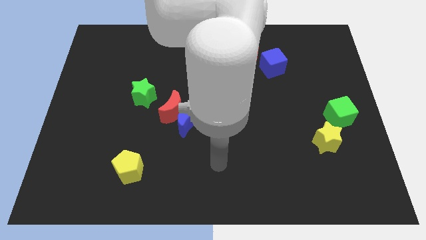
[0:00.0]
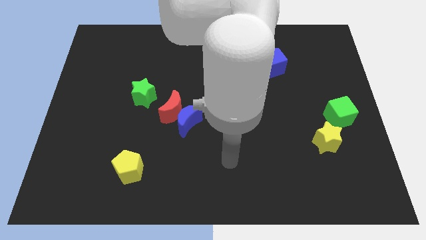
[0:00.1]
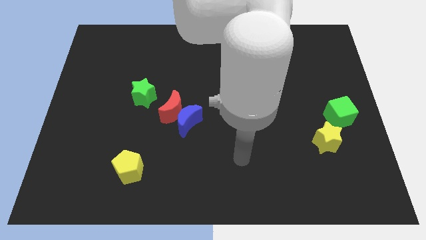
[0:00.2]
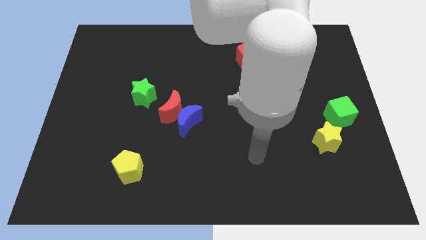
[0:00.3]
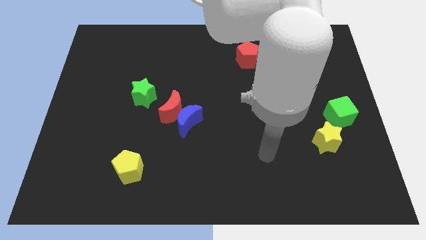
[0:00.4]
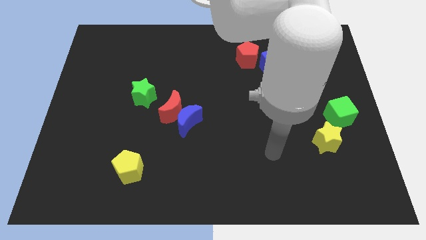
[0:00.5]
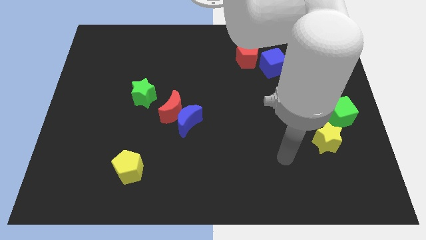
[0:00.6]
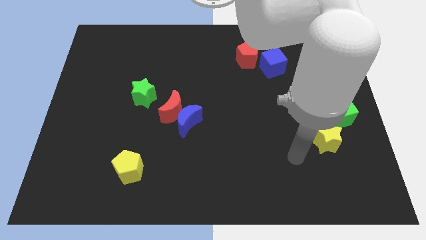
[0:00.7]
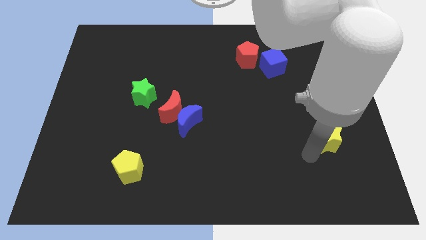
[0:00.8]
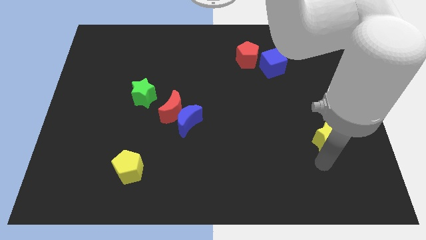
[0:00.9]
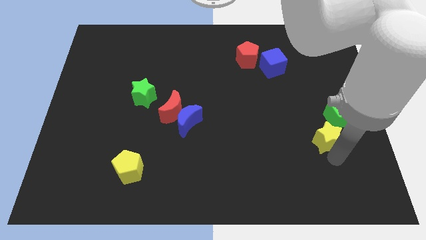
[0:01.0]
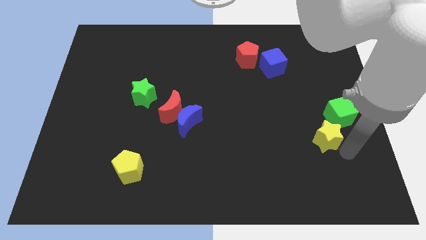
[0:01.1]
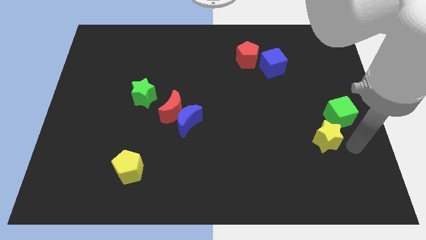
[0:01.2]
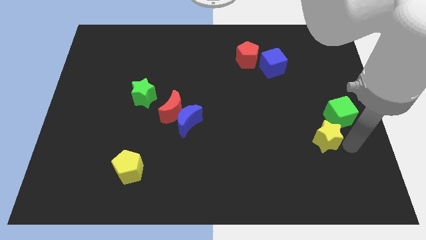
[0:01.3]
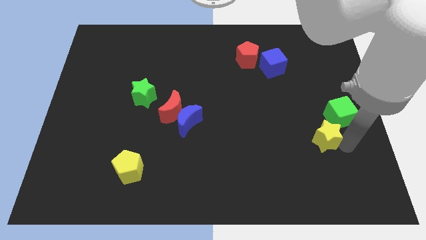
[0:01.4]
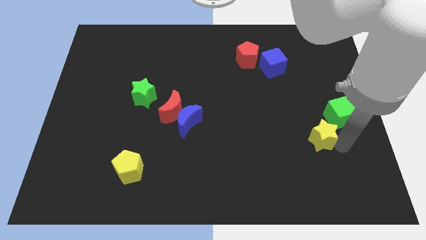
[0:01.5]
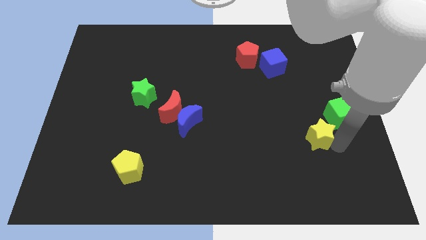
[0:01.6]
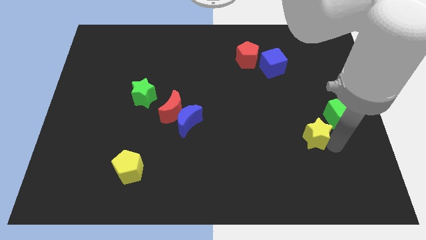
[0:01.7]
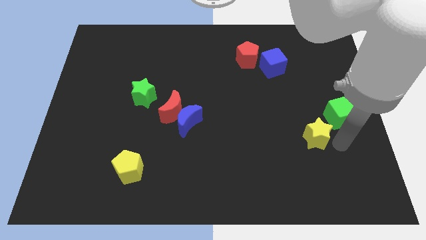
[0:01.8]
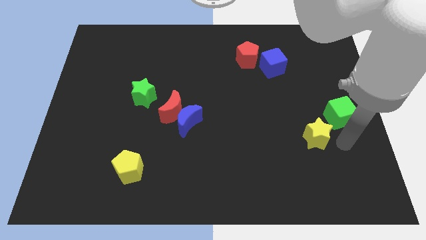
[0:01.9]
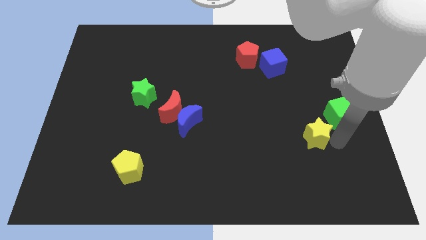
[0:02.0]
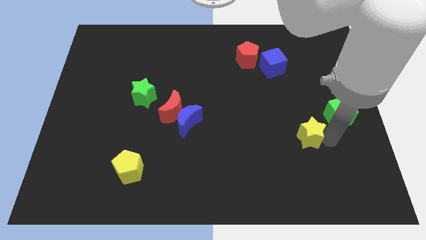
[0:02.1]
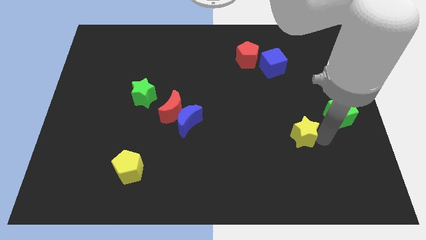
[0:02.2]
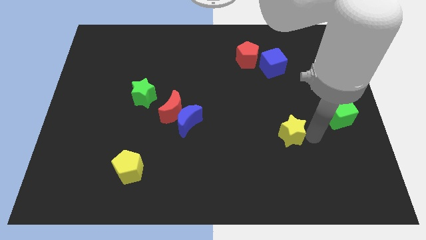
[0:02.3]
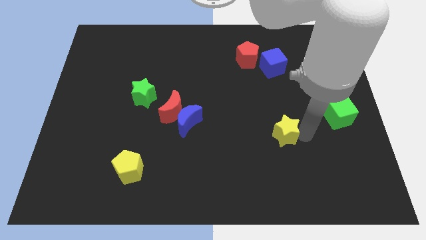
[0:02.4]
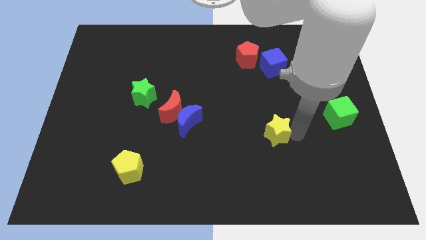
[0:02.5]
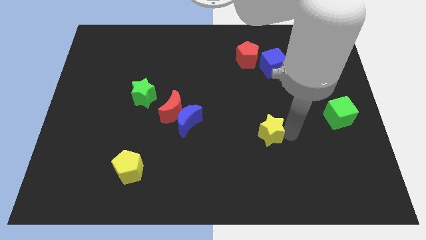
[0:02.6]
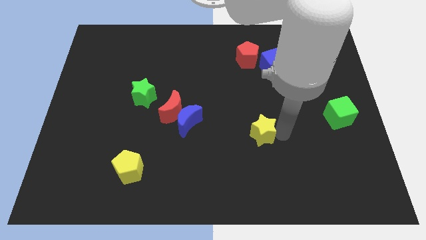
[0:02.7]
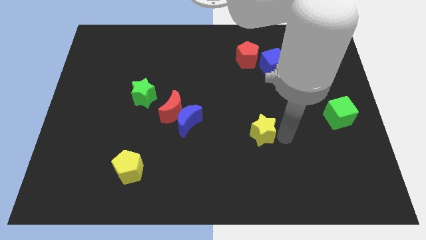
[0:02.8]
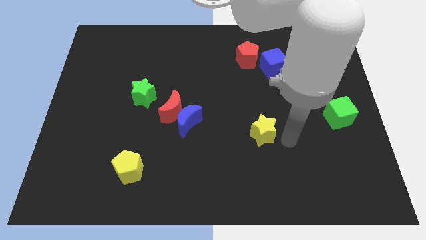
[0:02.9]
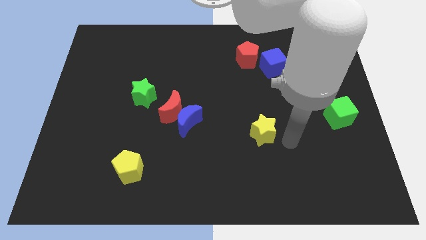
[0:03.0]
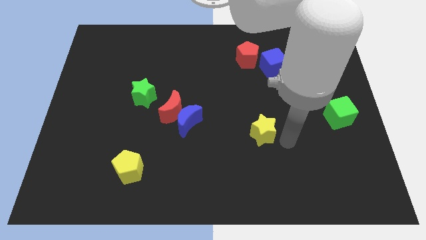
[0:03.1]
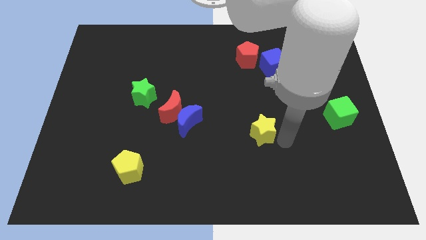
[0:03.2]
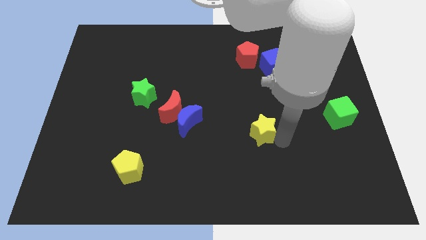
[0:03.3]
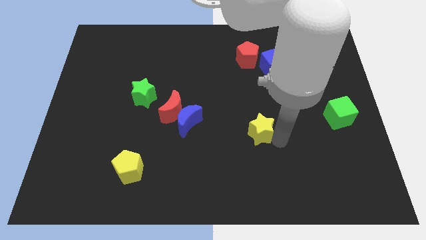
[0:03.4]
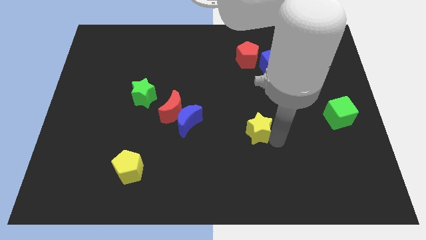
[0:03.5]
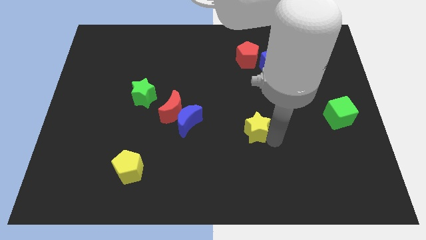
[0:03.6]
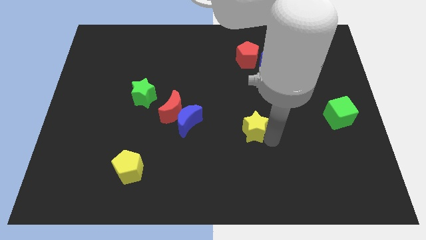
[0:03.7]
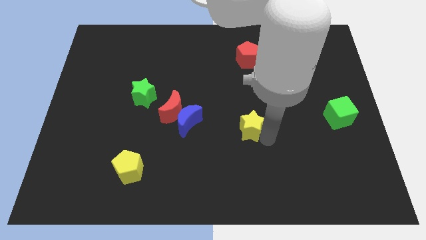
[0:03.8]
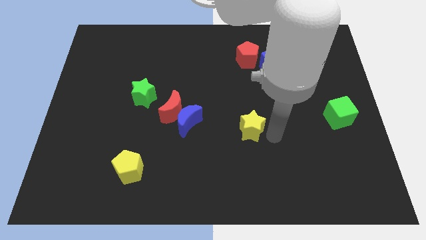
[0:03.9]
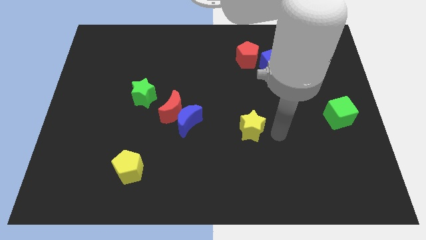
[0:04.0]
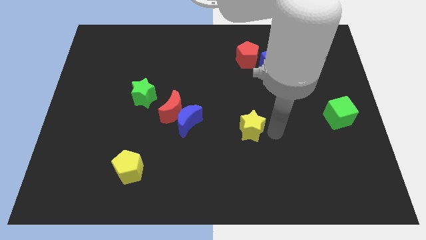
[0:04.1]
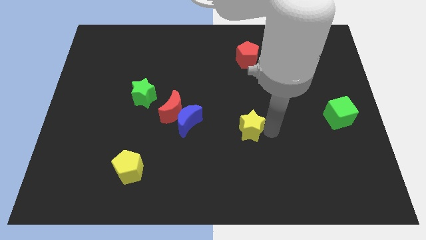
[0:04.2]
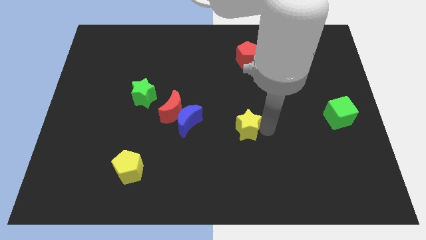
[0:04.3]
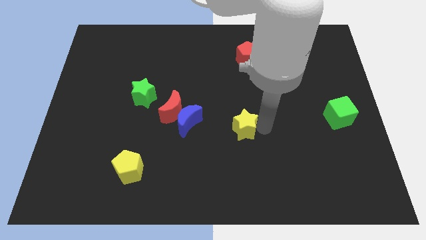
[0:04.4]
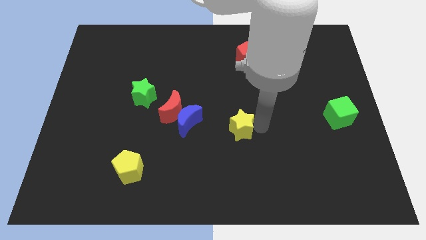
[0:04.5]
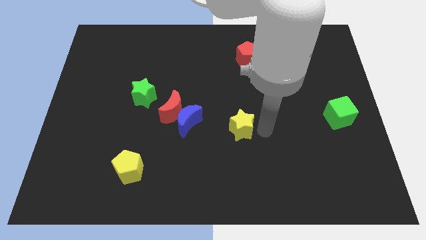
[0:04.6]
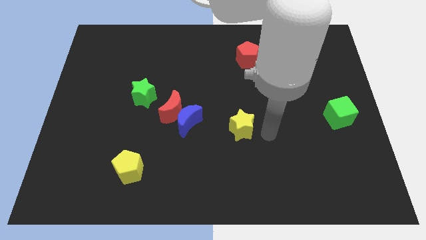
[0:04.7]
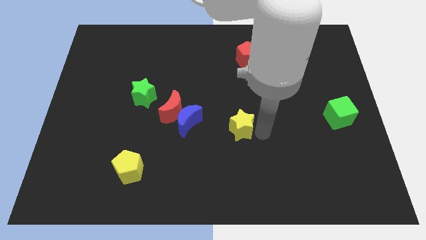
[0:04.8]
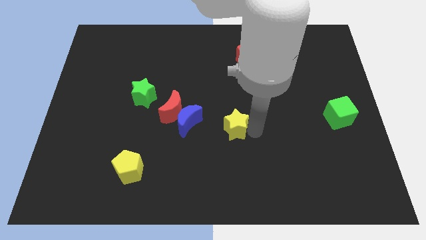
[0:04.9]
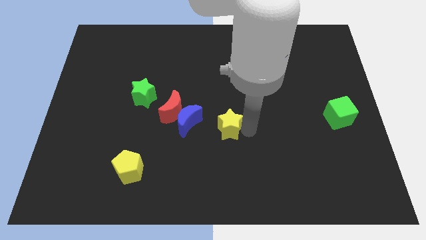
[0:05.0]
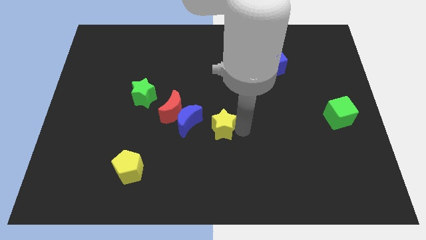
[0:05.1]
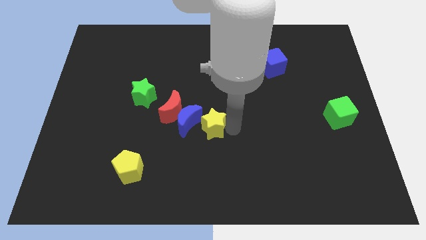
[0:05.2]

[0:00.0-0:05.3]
put the yellow star close to the blue moon

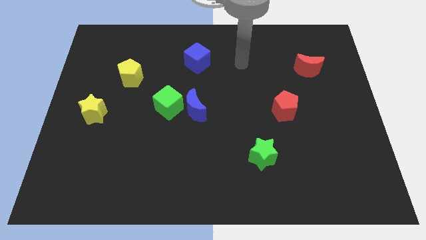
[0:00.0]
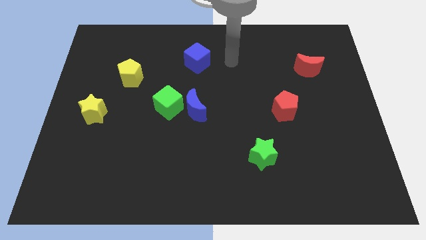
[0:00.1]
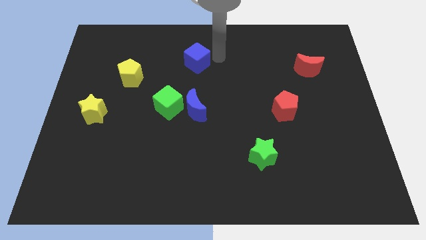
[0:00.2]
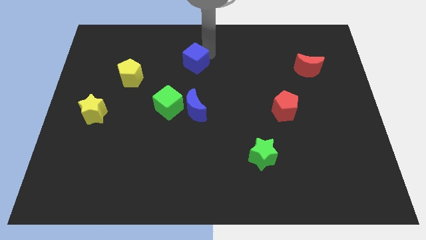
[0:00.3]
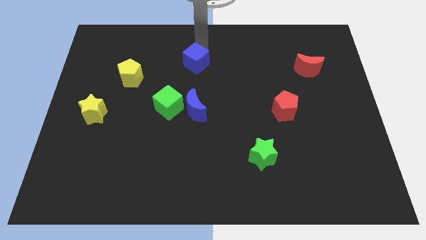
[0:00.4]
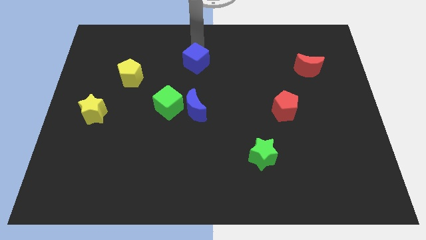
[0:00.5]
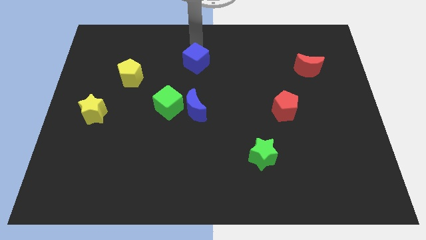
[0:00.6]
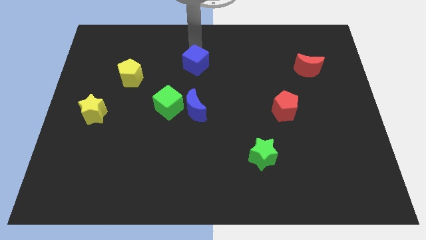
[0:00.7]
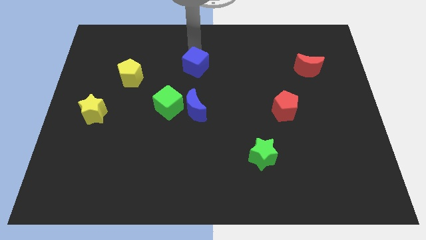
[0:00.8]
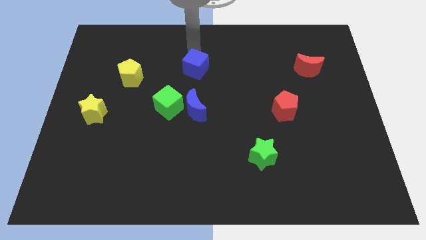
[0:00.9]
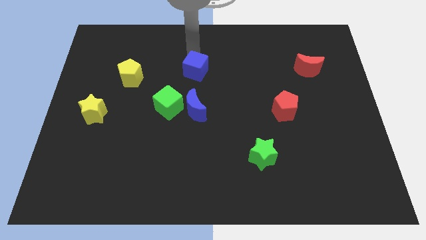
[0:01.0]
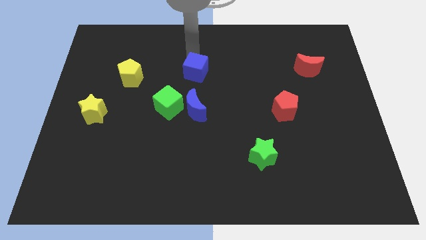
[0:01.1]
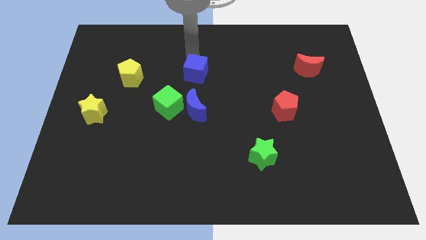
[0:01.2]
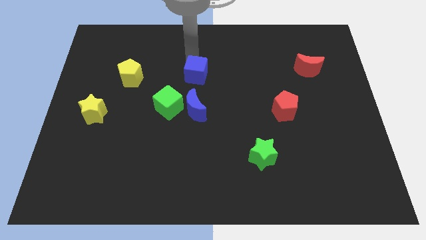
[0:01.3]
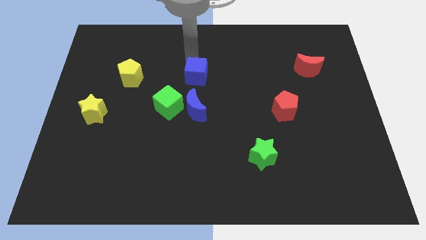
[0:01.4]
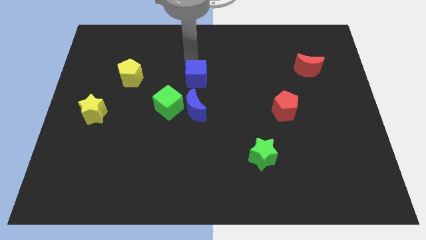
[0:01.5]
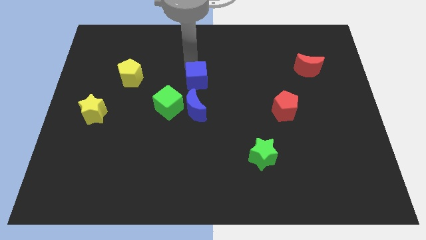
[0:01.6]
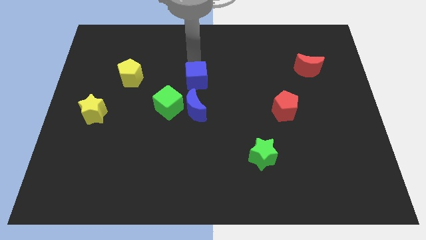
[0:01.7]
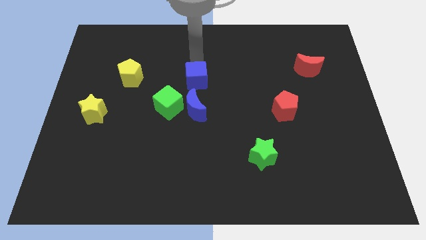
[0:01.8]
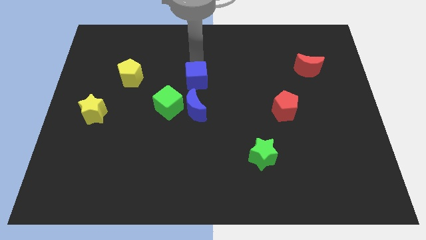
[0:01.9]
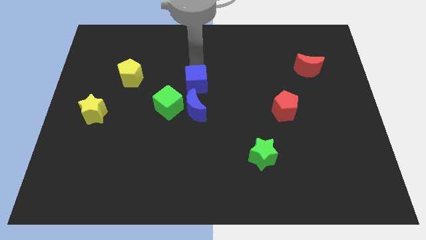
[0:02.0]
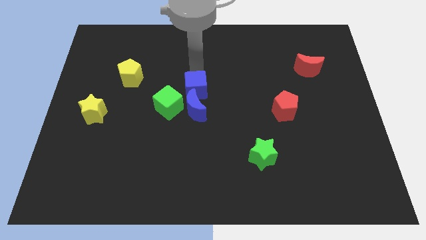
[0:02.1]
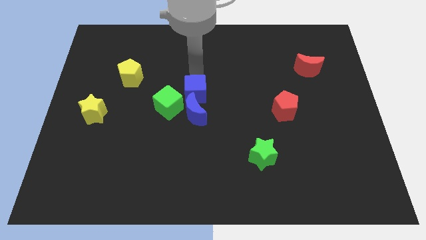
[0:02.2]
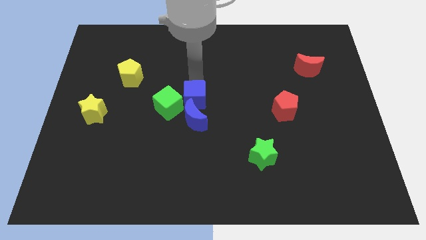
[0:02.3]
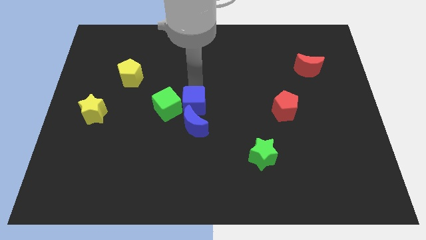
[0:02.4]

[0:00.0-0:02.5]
push the blue cube next to the blue moon
